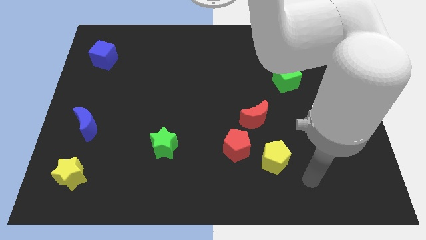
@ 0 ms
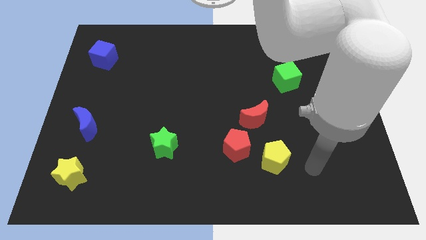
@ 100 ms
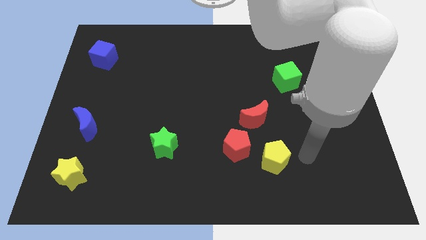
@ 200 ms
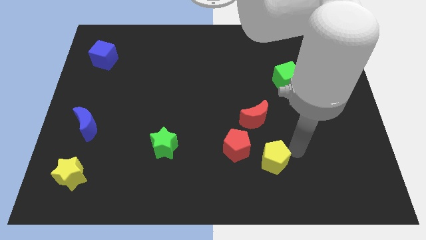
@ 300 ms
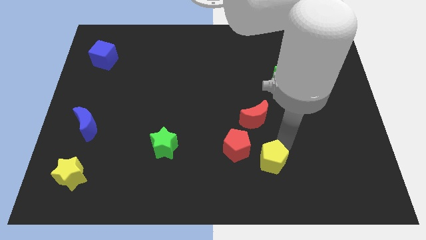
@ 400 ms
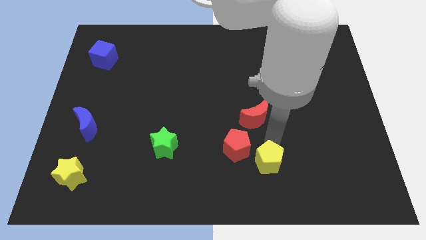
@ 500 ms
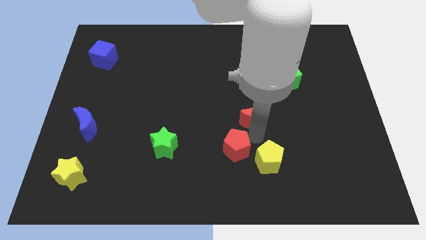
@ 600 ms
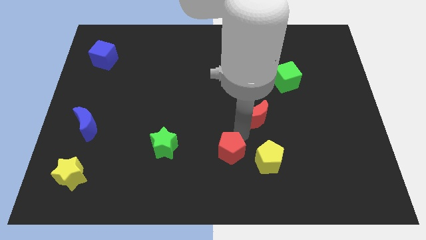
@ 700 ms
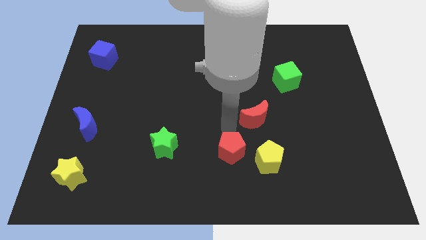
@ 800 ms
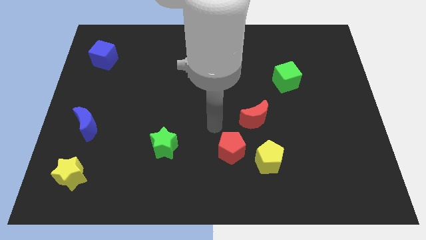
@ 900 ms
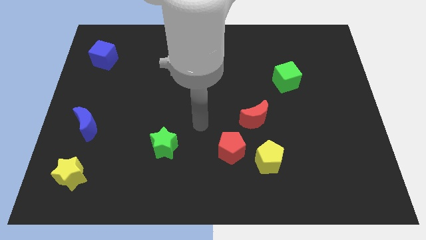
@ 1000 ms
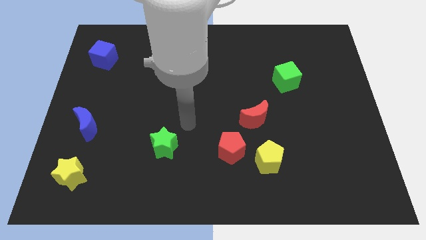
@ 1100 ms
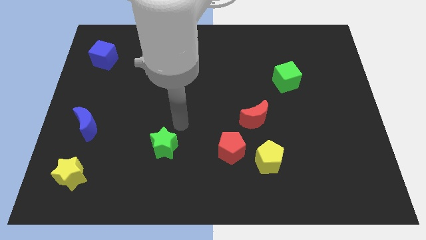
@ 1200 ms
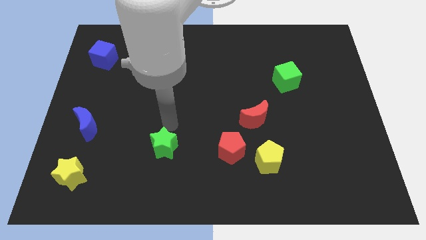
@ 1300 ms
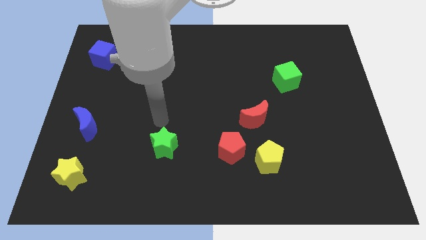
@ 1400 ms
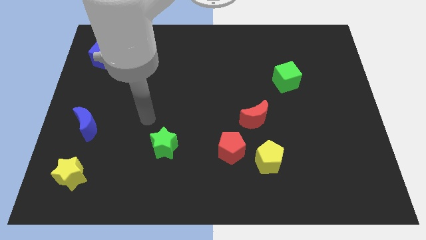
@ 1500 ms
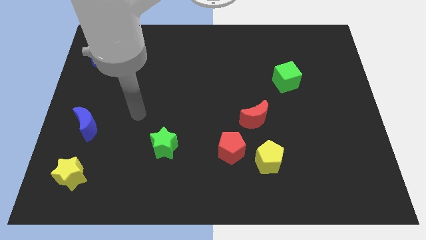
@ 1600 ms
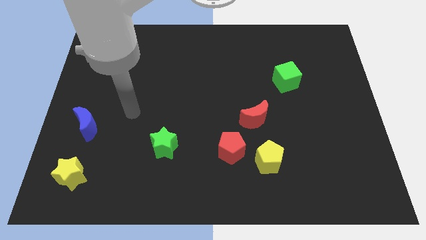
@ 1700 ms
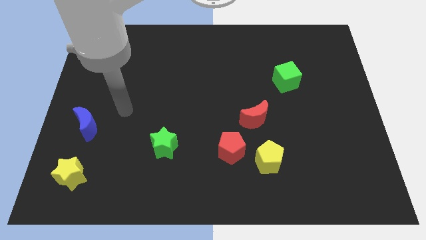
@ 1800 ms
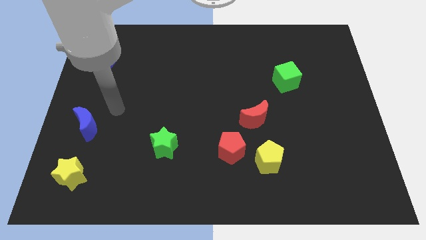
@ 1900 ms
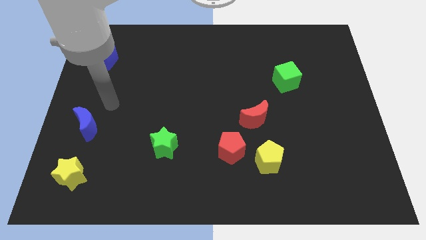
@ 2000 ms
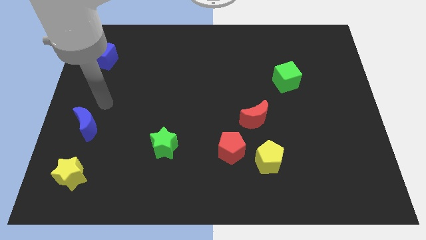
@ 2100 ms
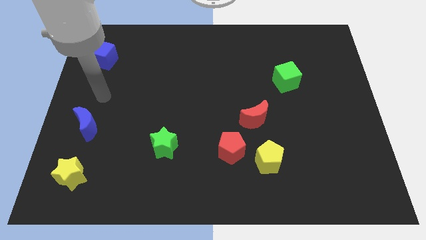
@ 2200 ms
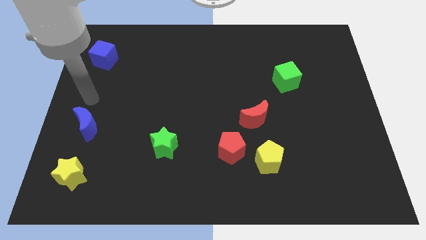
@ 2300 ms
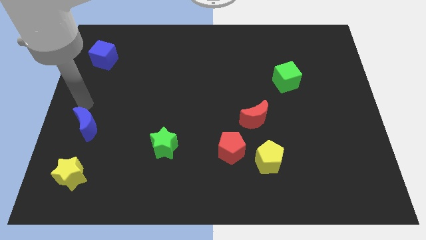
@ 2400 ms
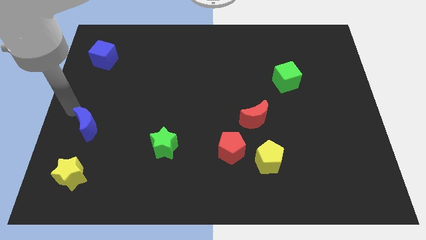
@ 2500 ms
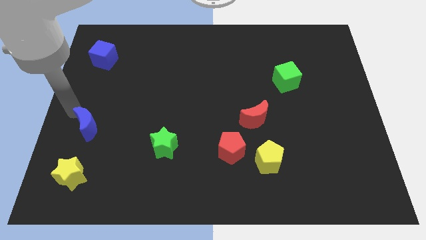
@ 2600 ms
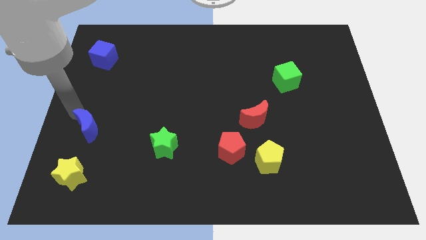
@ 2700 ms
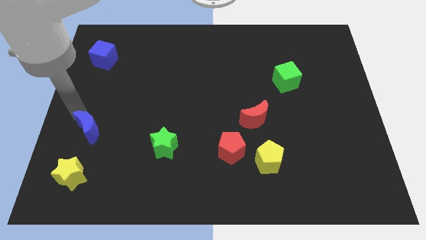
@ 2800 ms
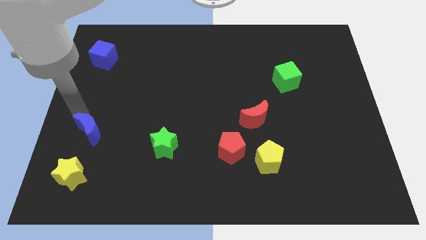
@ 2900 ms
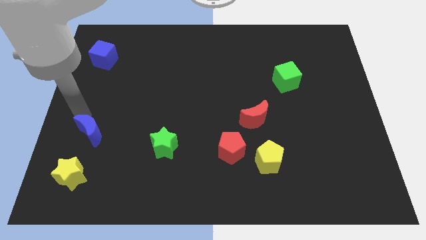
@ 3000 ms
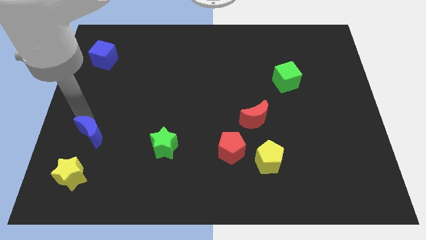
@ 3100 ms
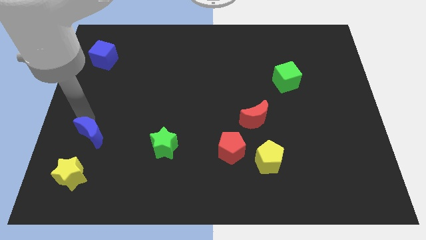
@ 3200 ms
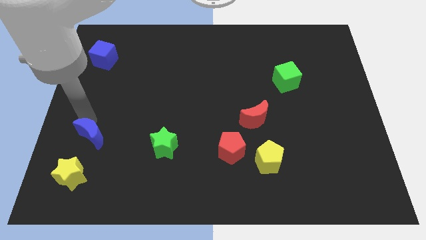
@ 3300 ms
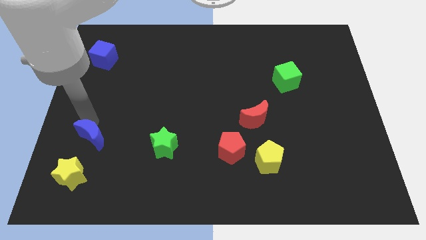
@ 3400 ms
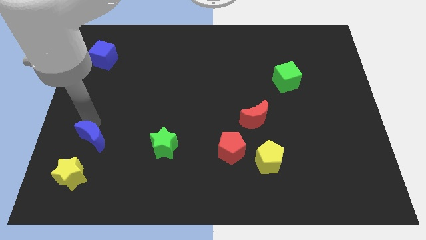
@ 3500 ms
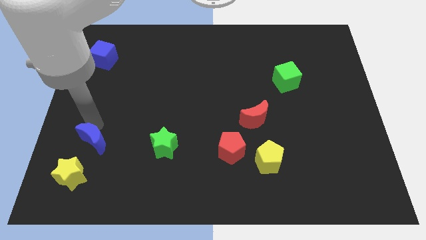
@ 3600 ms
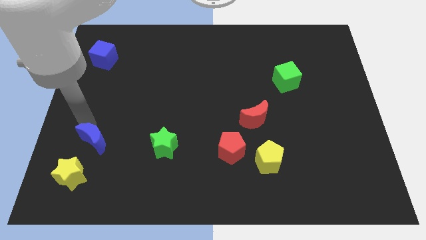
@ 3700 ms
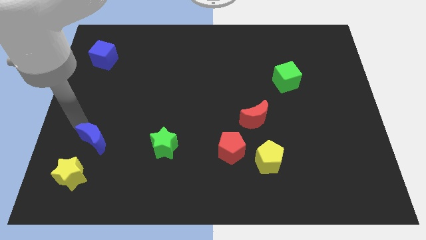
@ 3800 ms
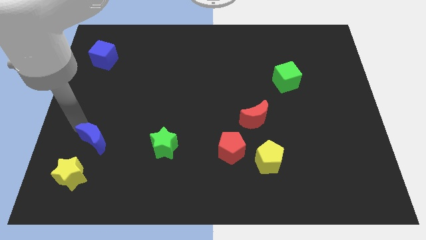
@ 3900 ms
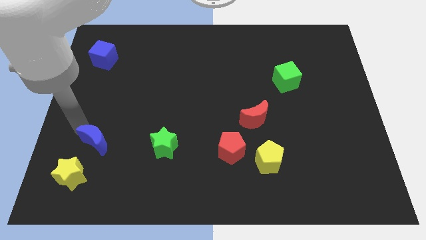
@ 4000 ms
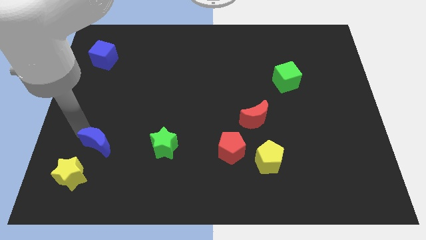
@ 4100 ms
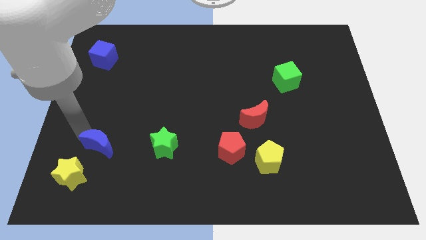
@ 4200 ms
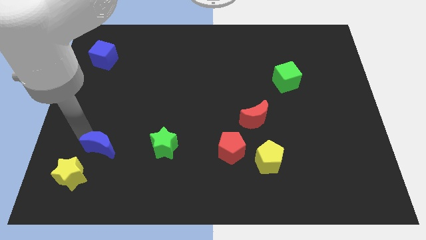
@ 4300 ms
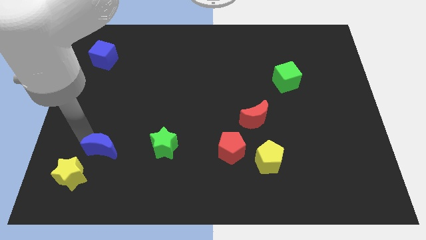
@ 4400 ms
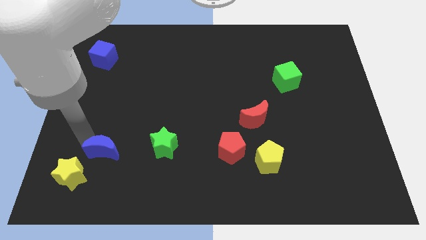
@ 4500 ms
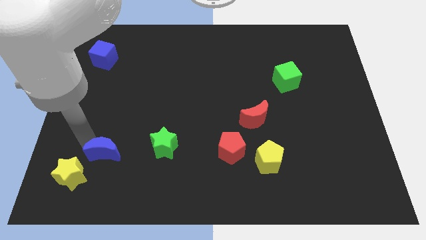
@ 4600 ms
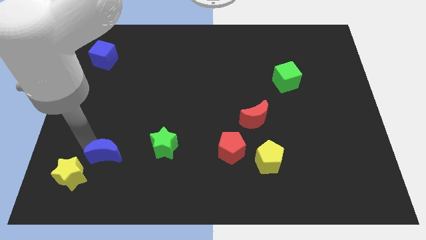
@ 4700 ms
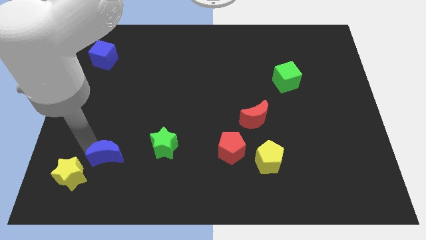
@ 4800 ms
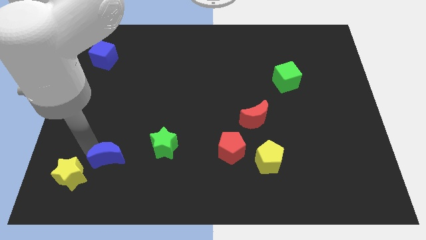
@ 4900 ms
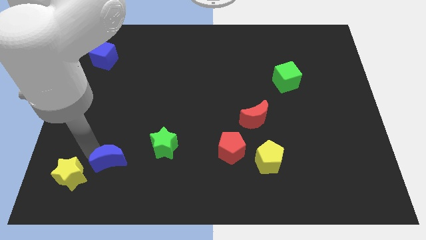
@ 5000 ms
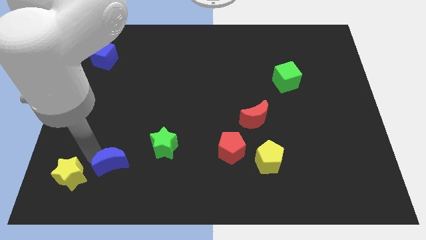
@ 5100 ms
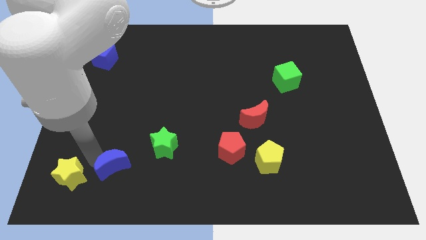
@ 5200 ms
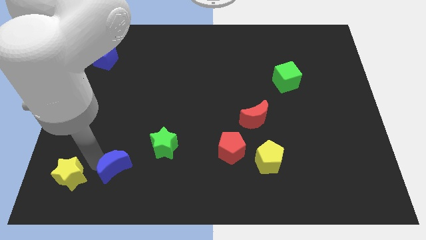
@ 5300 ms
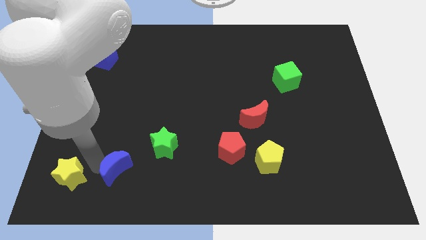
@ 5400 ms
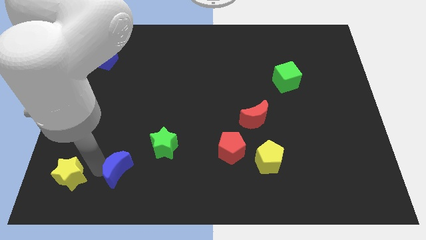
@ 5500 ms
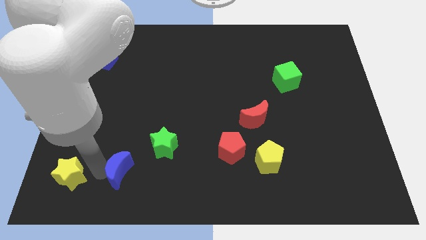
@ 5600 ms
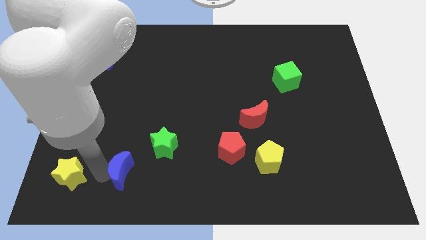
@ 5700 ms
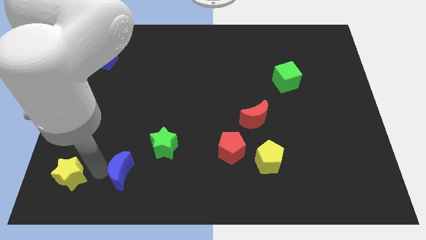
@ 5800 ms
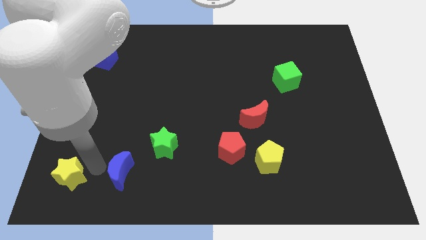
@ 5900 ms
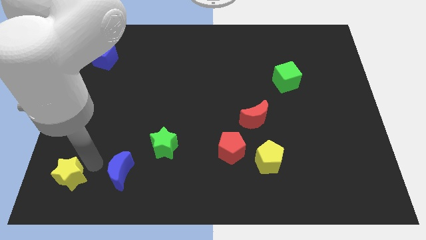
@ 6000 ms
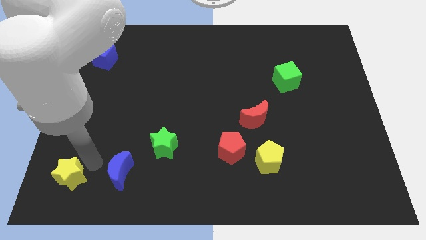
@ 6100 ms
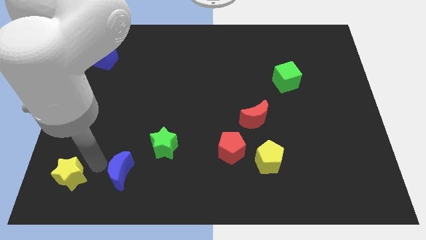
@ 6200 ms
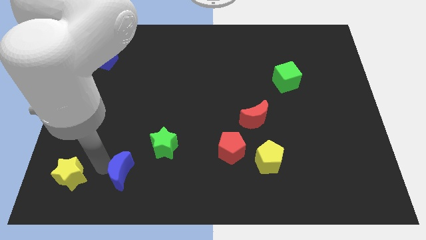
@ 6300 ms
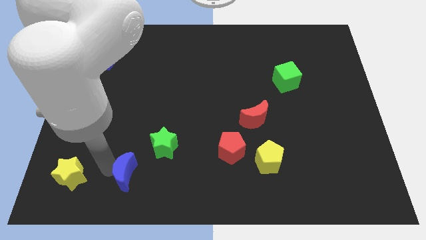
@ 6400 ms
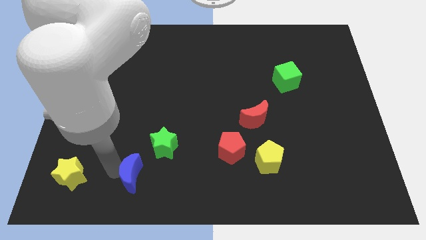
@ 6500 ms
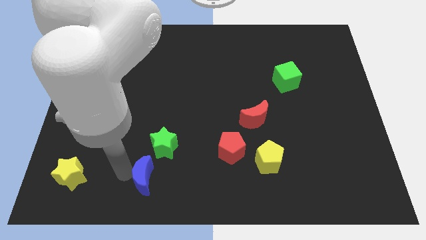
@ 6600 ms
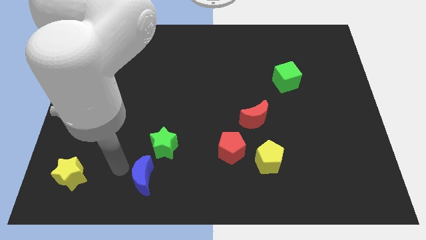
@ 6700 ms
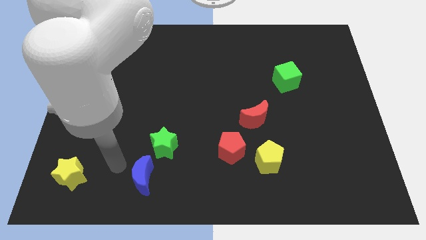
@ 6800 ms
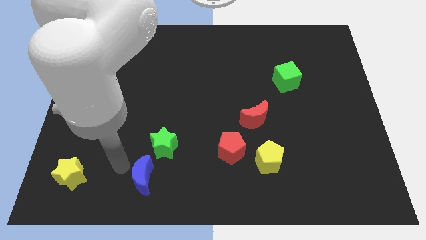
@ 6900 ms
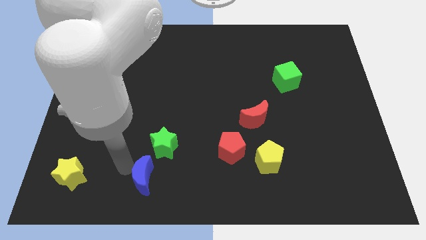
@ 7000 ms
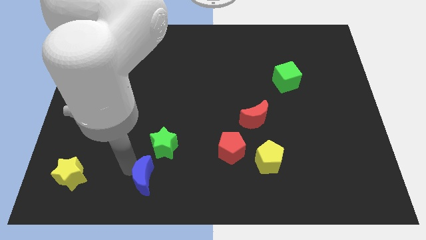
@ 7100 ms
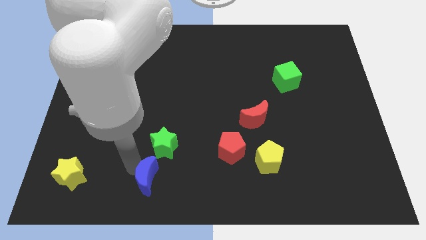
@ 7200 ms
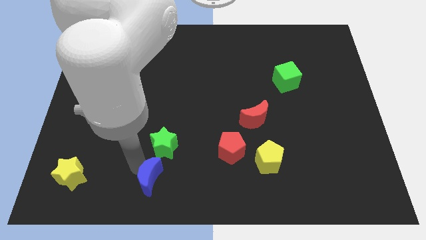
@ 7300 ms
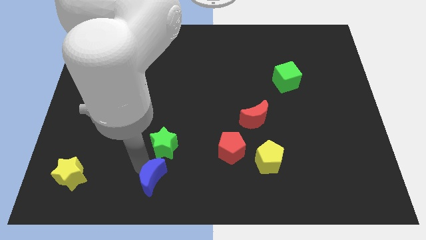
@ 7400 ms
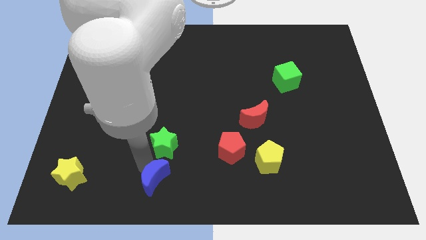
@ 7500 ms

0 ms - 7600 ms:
push the blue moon to the bottom side
